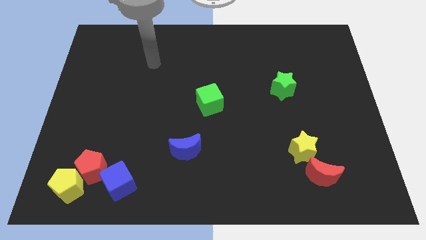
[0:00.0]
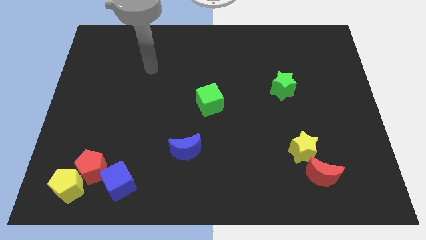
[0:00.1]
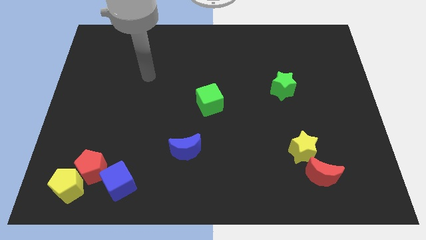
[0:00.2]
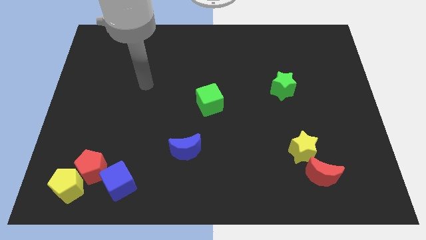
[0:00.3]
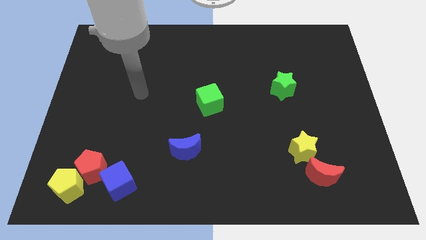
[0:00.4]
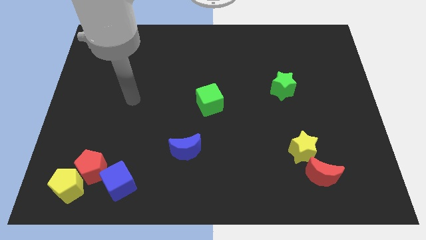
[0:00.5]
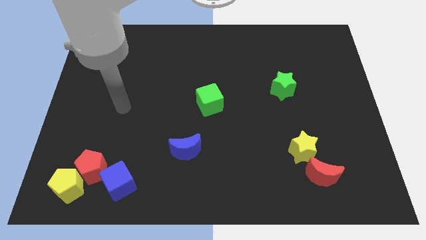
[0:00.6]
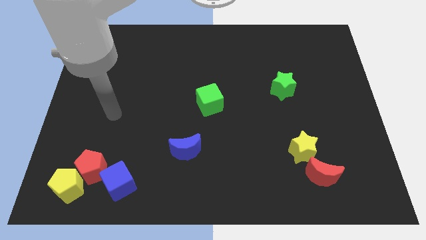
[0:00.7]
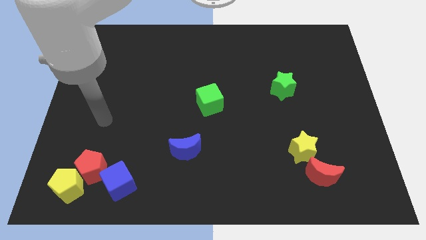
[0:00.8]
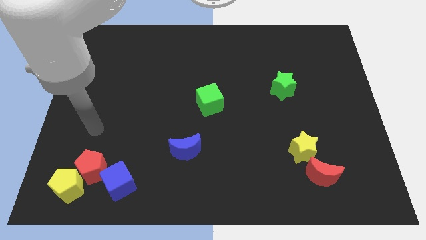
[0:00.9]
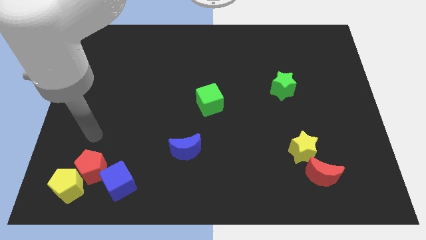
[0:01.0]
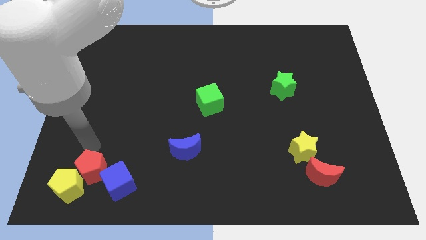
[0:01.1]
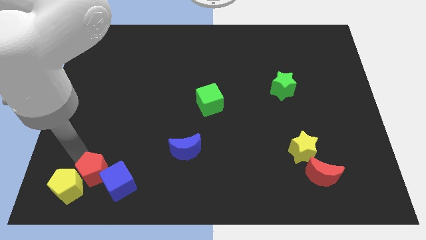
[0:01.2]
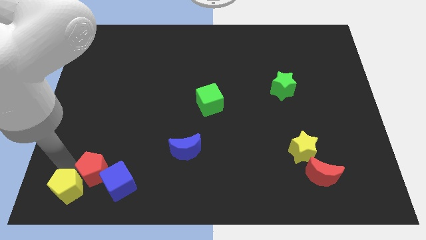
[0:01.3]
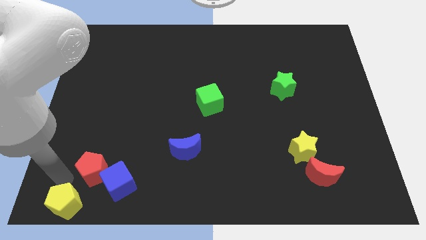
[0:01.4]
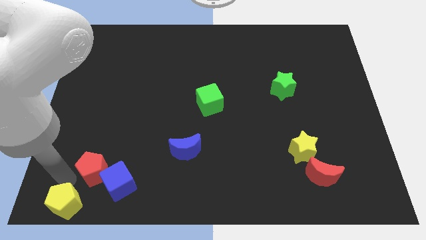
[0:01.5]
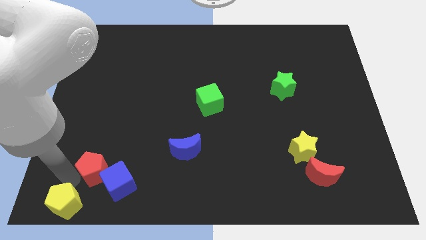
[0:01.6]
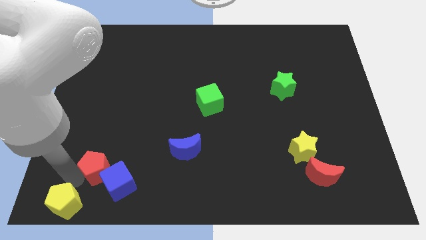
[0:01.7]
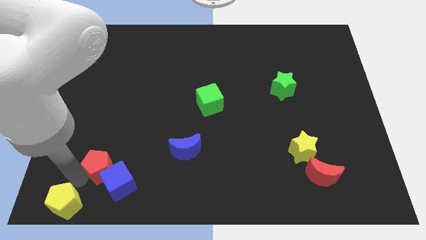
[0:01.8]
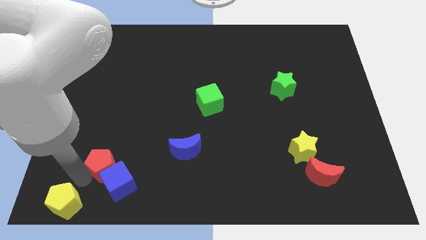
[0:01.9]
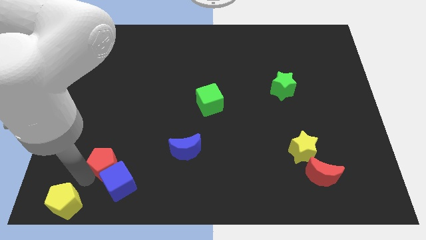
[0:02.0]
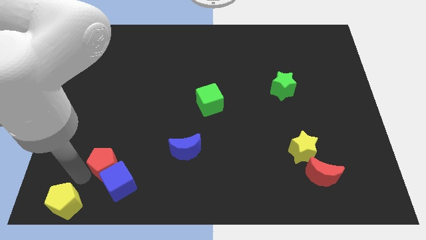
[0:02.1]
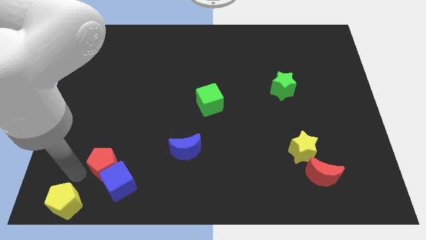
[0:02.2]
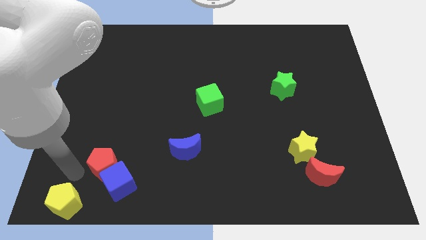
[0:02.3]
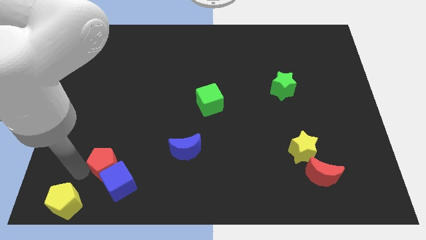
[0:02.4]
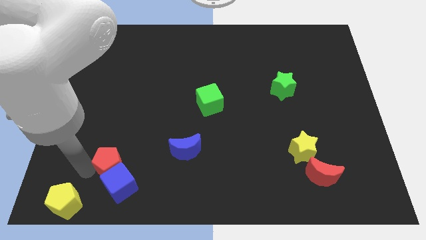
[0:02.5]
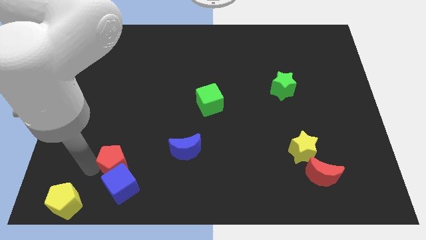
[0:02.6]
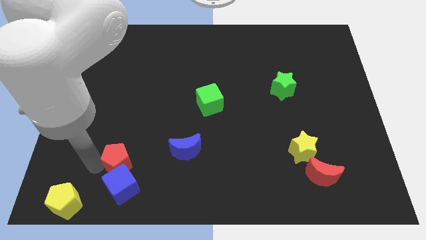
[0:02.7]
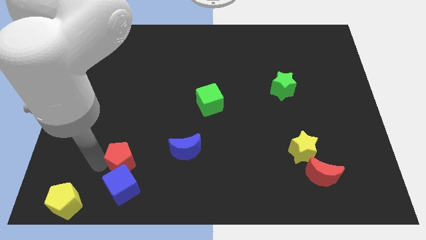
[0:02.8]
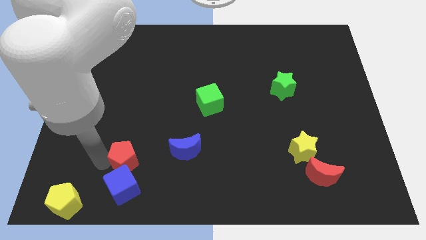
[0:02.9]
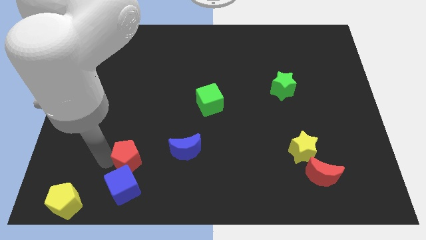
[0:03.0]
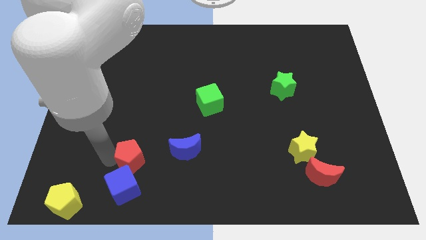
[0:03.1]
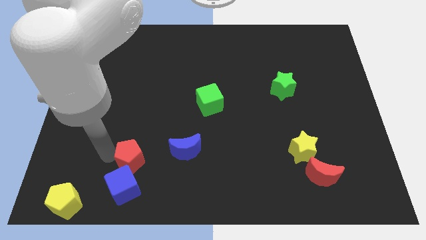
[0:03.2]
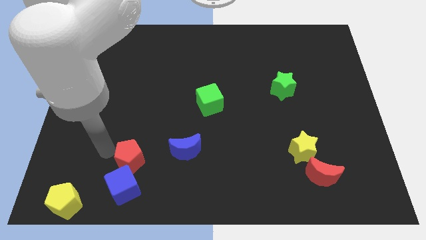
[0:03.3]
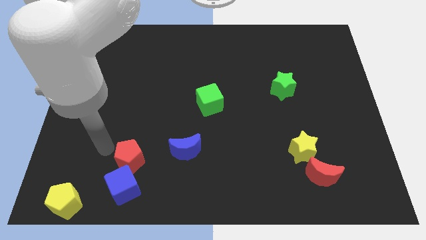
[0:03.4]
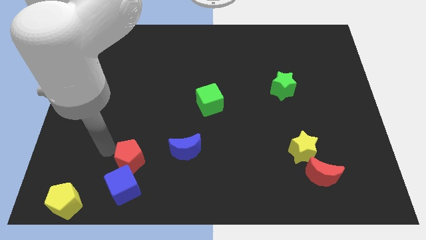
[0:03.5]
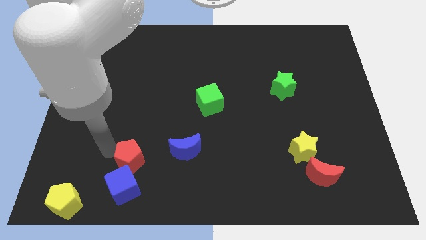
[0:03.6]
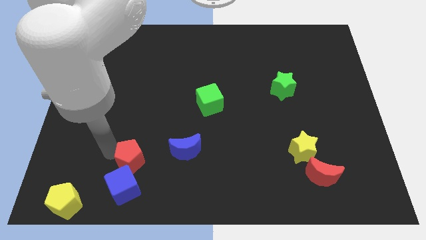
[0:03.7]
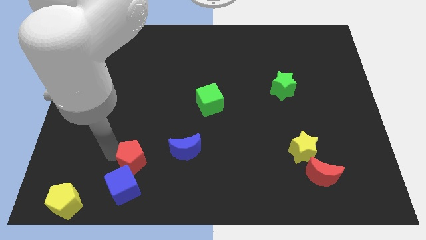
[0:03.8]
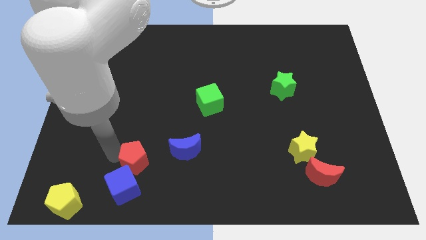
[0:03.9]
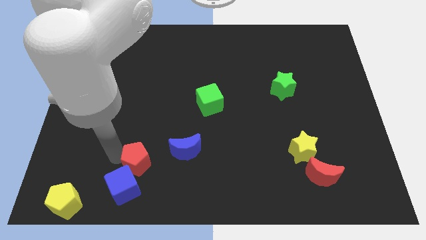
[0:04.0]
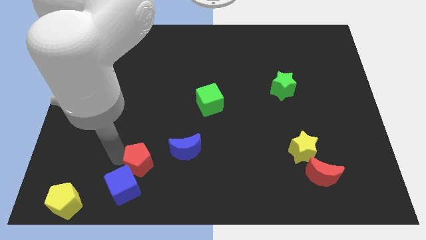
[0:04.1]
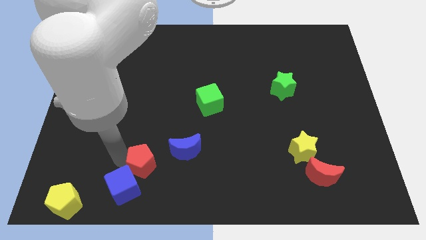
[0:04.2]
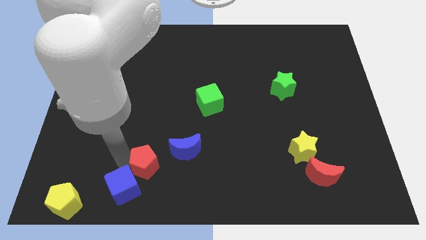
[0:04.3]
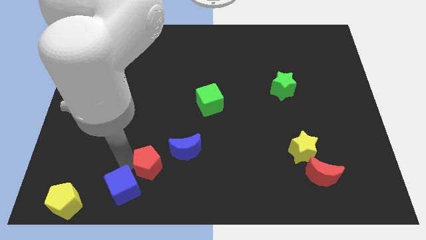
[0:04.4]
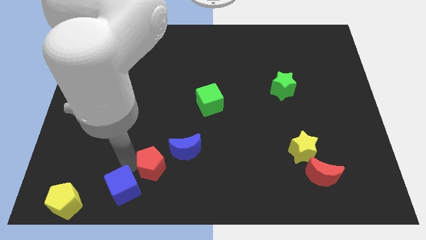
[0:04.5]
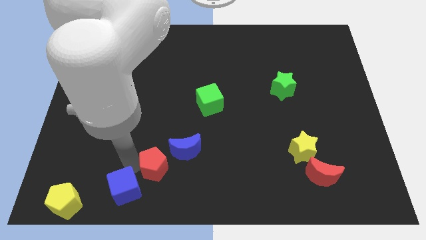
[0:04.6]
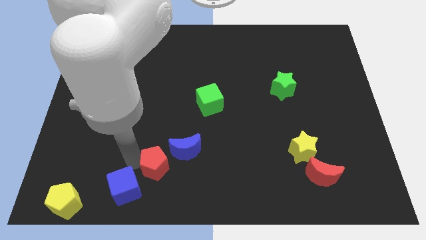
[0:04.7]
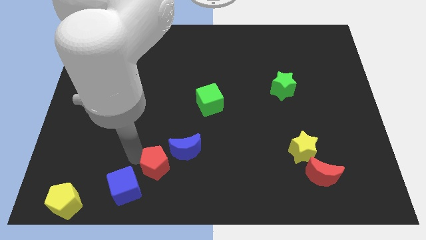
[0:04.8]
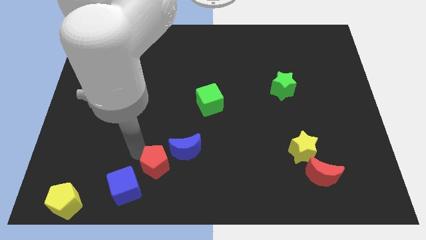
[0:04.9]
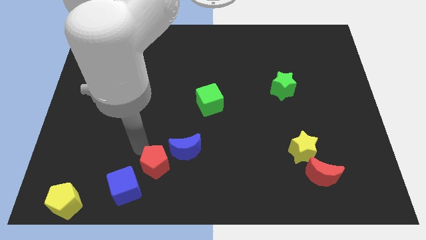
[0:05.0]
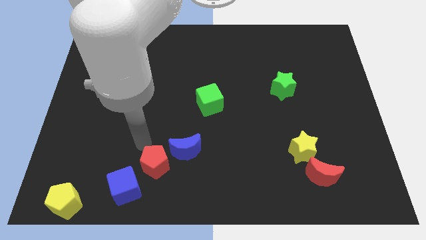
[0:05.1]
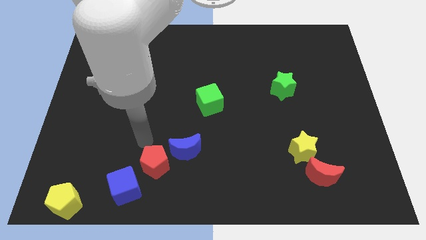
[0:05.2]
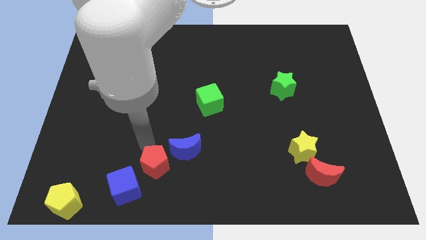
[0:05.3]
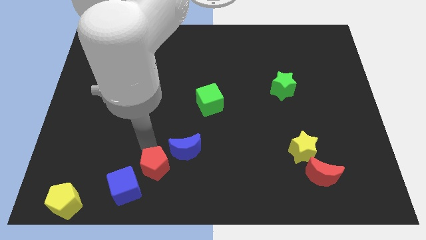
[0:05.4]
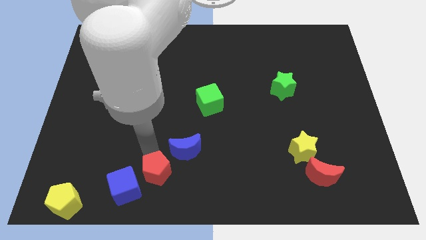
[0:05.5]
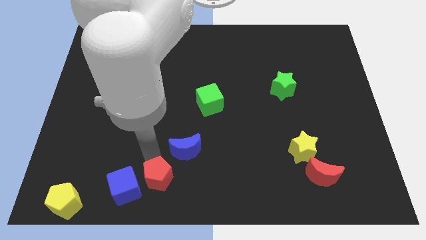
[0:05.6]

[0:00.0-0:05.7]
put the red pentagon to the bottom

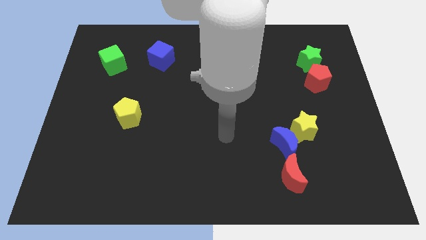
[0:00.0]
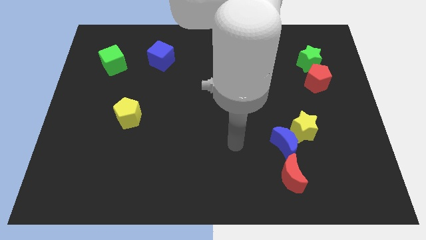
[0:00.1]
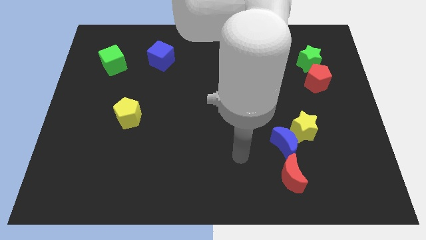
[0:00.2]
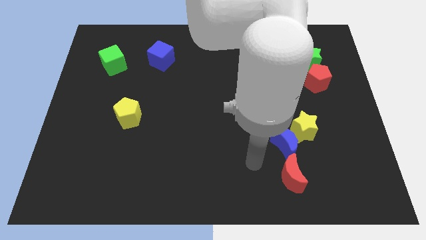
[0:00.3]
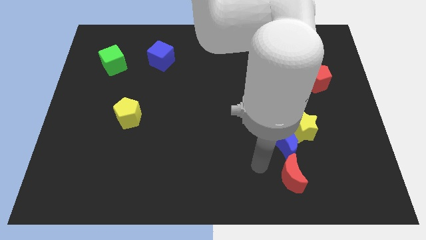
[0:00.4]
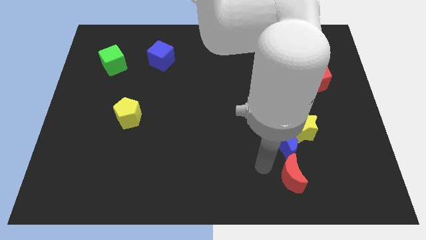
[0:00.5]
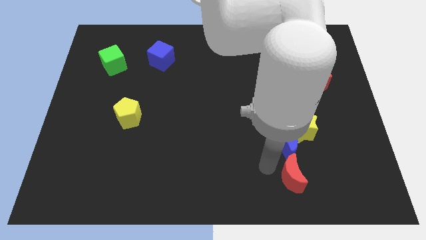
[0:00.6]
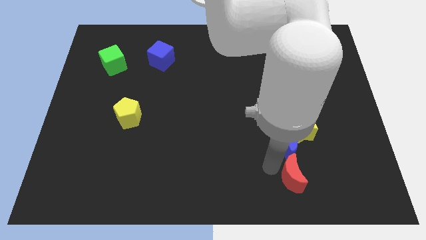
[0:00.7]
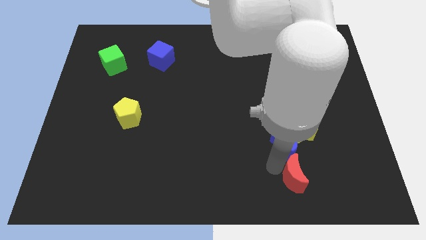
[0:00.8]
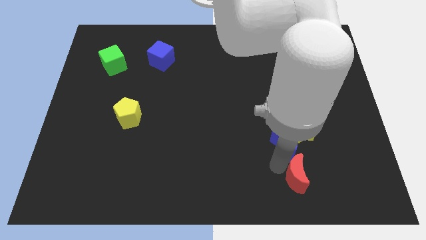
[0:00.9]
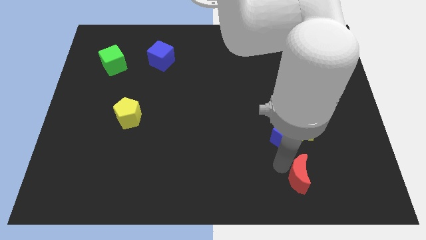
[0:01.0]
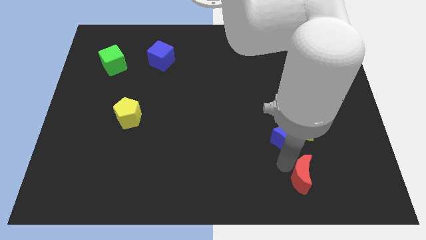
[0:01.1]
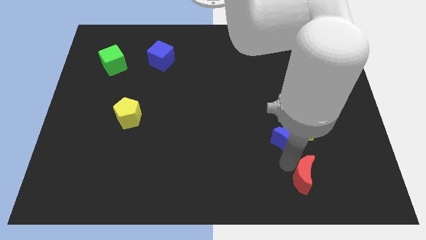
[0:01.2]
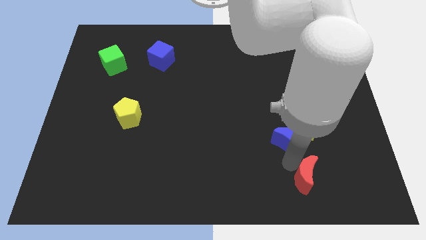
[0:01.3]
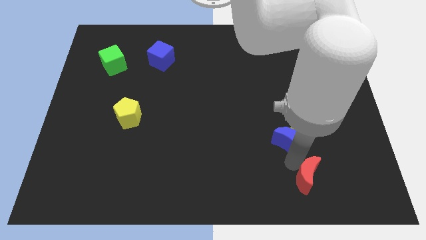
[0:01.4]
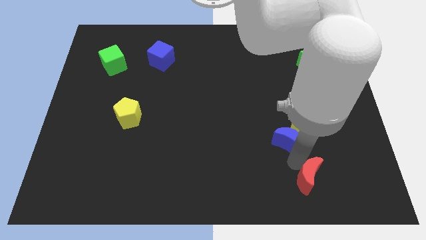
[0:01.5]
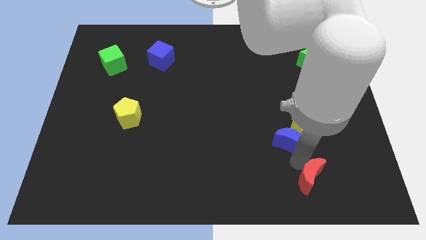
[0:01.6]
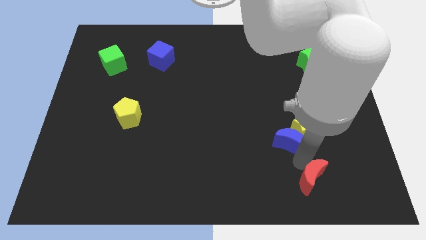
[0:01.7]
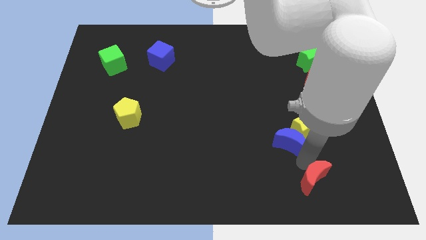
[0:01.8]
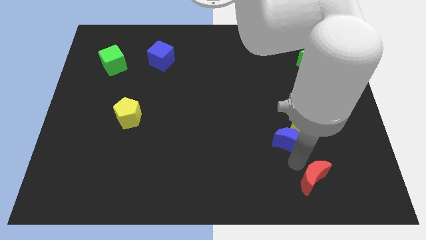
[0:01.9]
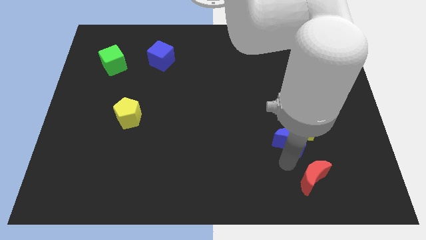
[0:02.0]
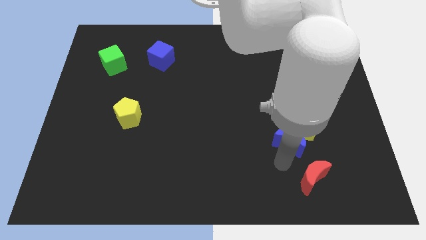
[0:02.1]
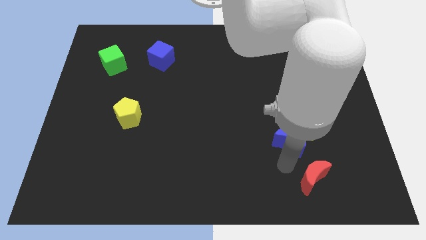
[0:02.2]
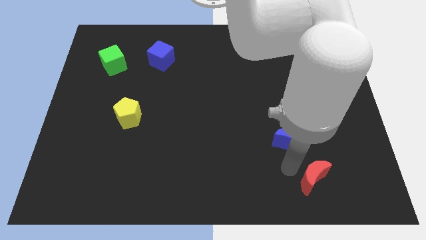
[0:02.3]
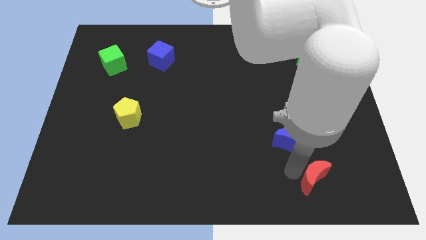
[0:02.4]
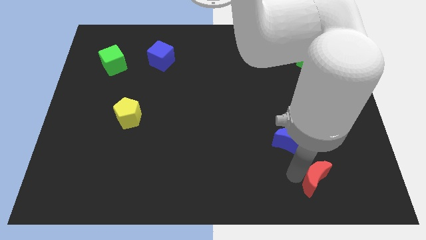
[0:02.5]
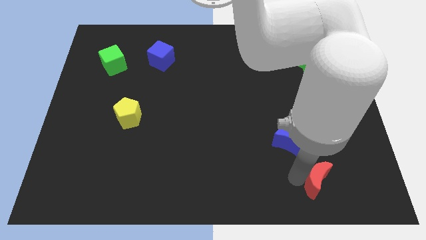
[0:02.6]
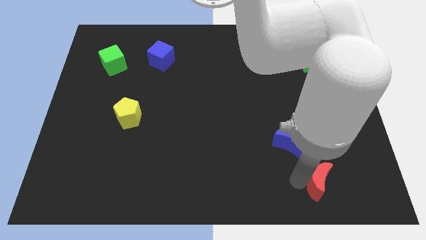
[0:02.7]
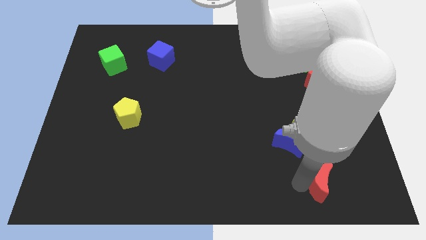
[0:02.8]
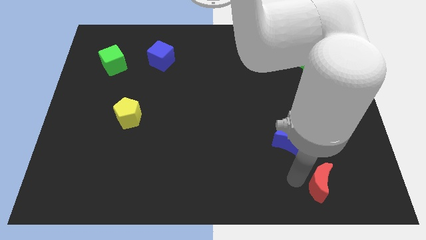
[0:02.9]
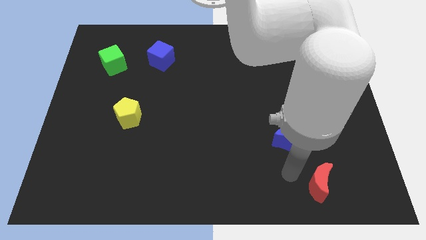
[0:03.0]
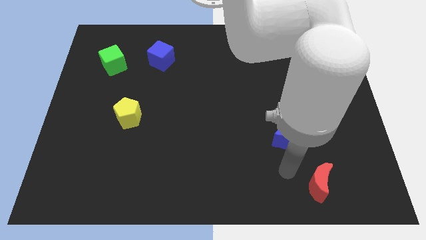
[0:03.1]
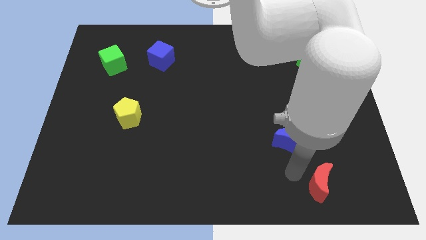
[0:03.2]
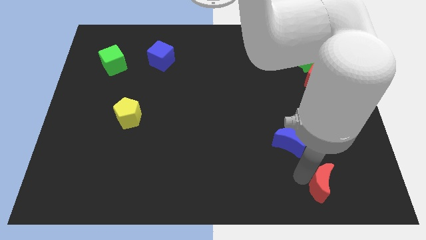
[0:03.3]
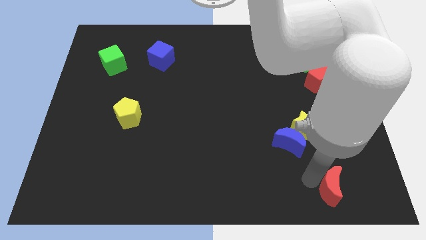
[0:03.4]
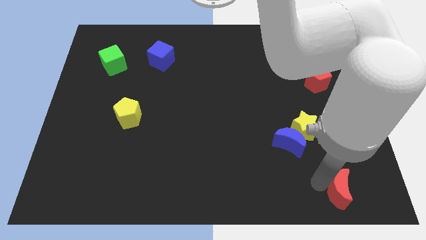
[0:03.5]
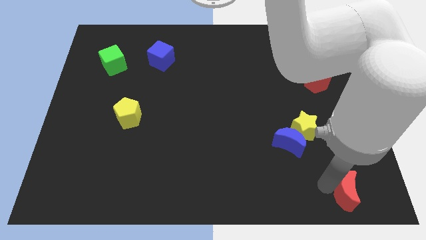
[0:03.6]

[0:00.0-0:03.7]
push the red moon to the bottom right of the board
